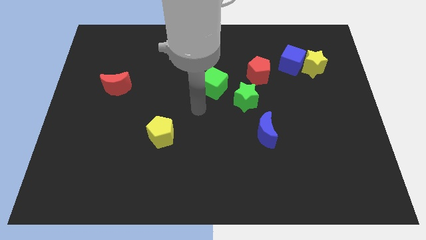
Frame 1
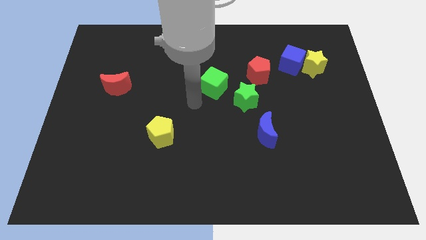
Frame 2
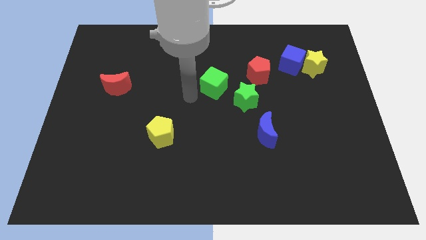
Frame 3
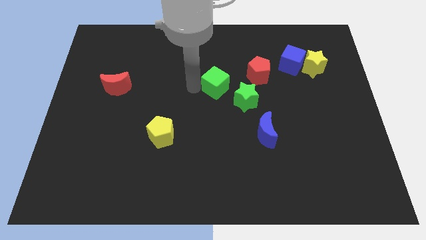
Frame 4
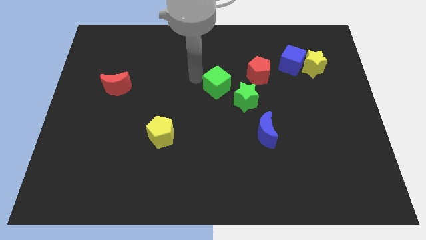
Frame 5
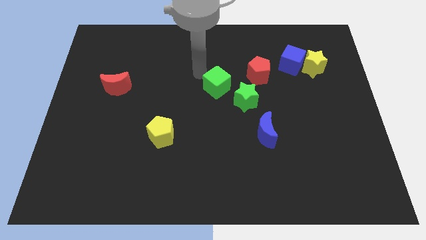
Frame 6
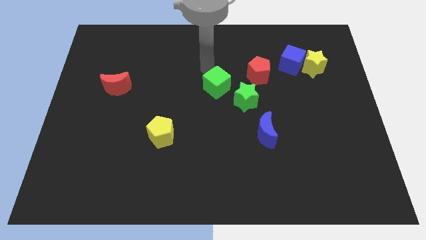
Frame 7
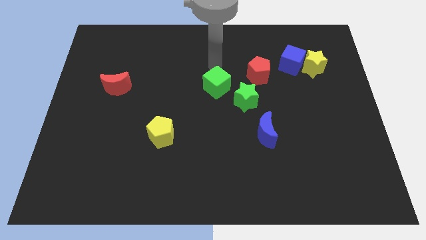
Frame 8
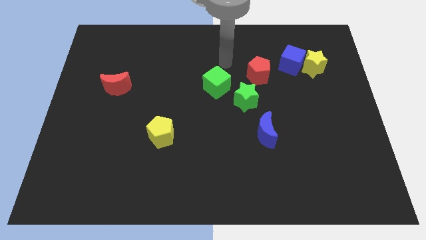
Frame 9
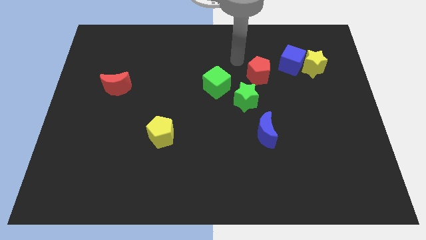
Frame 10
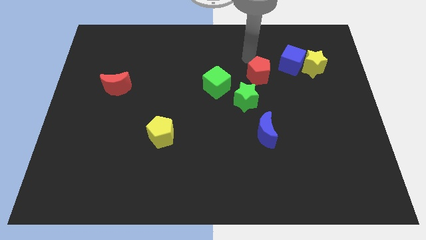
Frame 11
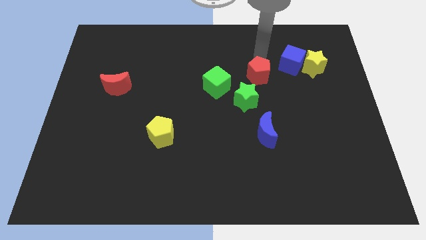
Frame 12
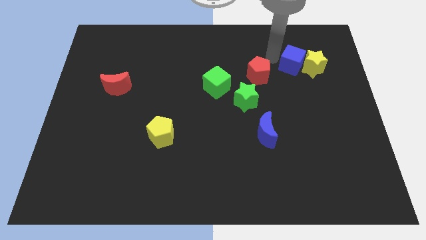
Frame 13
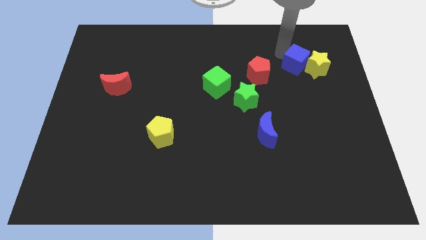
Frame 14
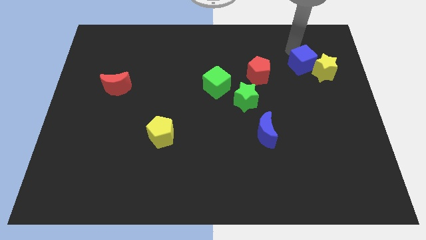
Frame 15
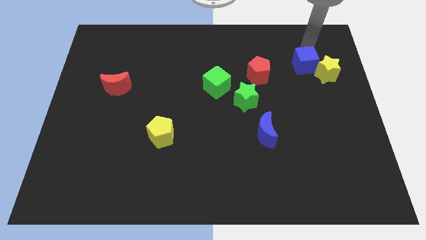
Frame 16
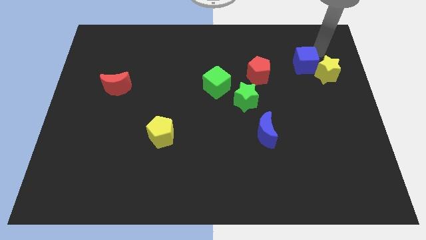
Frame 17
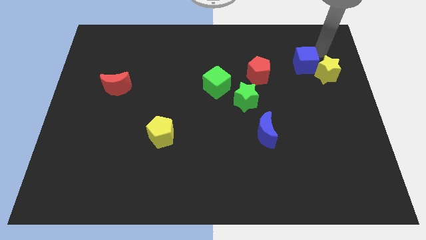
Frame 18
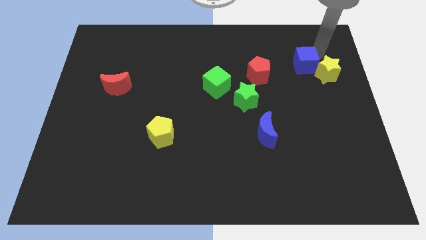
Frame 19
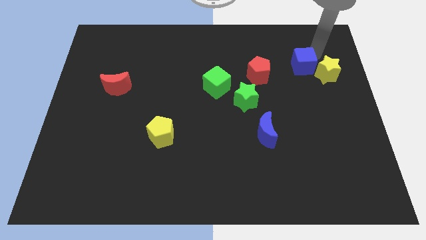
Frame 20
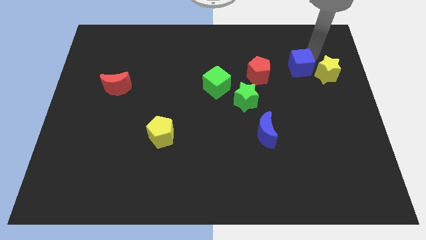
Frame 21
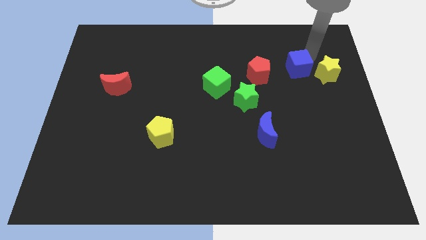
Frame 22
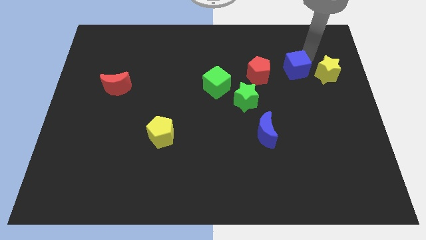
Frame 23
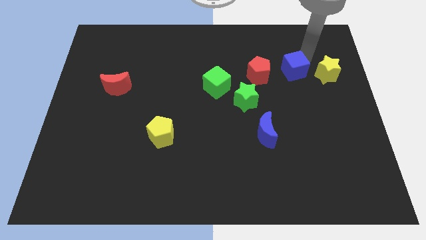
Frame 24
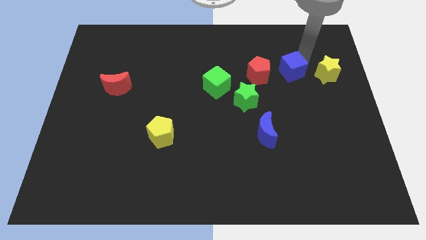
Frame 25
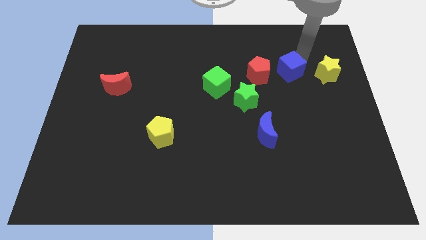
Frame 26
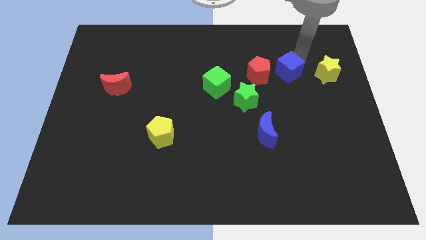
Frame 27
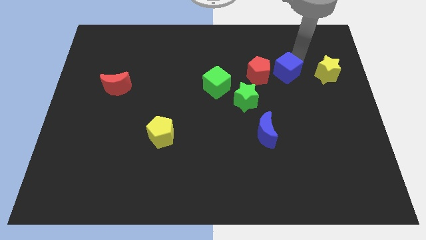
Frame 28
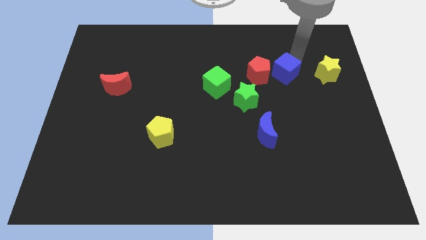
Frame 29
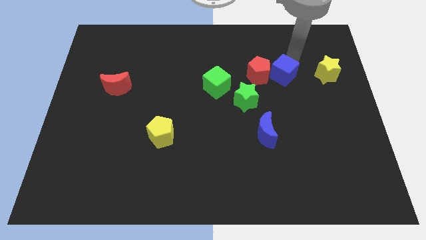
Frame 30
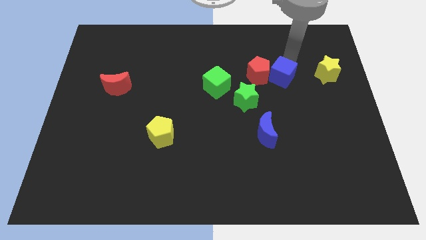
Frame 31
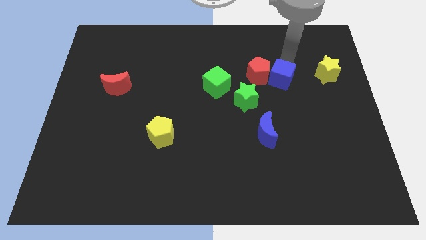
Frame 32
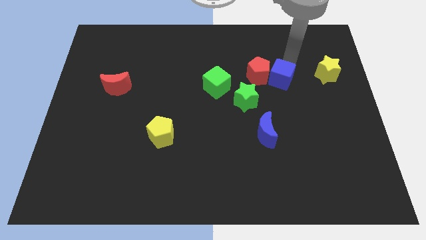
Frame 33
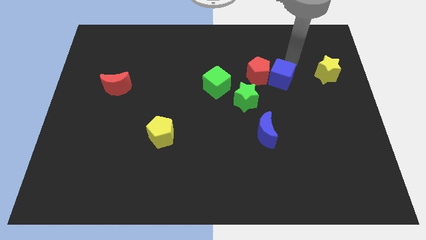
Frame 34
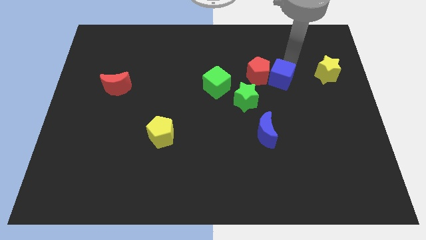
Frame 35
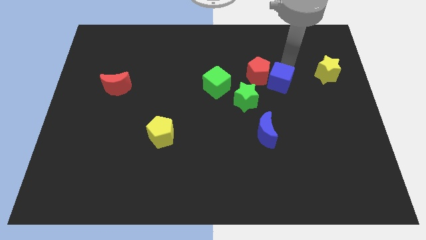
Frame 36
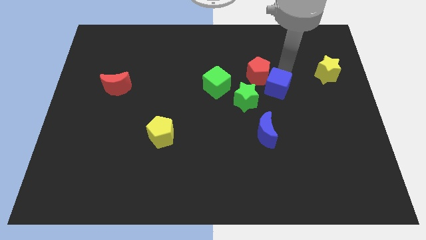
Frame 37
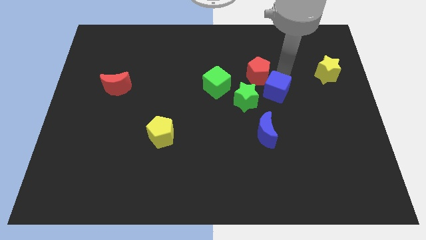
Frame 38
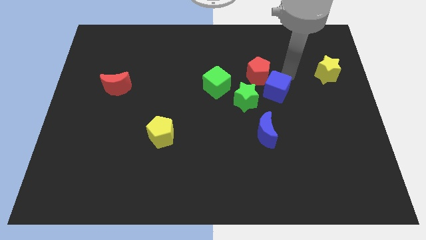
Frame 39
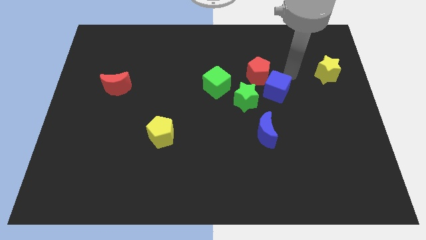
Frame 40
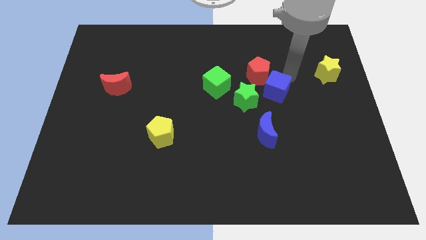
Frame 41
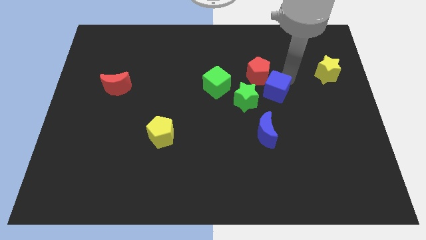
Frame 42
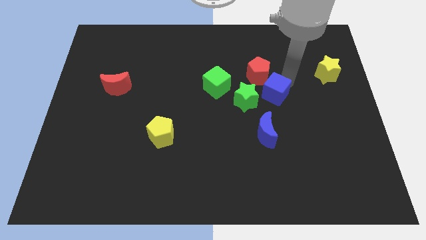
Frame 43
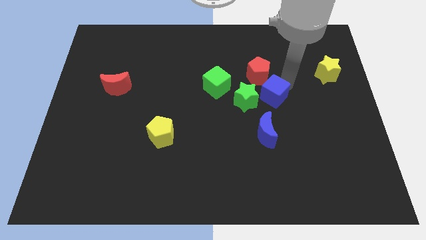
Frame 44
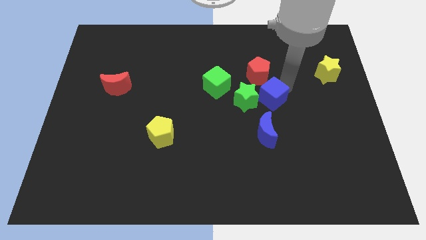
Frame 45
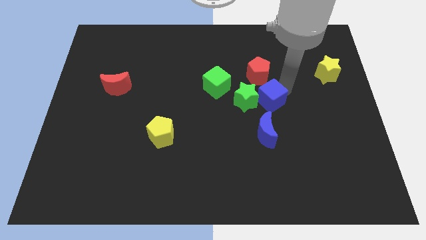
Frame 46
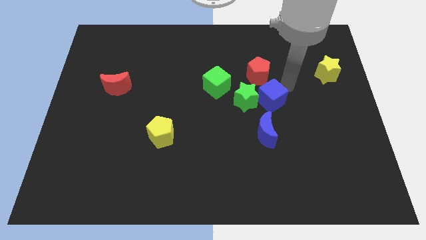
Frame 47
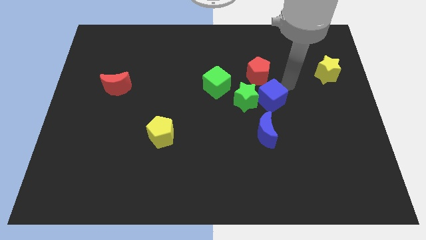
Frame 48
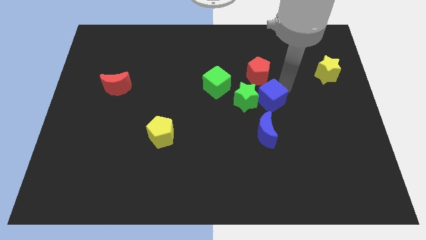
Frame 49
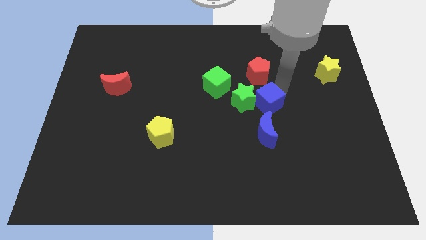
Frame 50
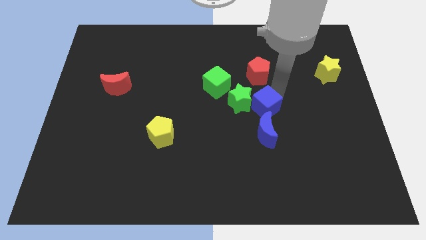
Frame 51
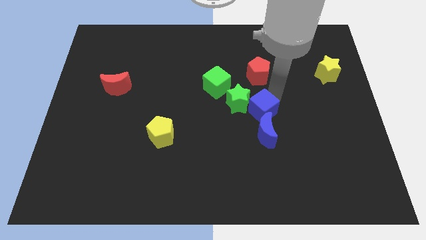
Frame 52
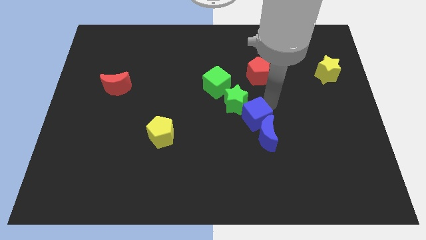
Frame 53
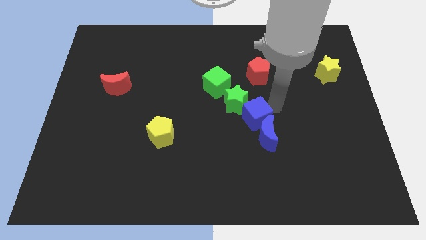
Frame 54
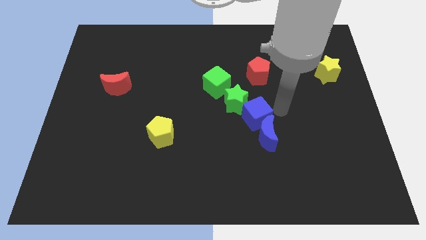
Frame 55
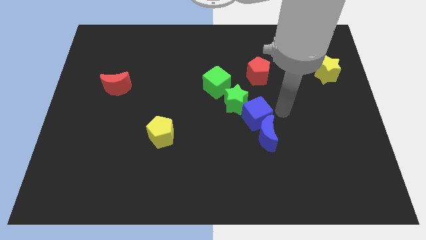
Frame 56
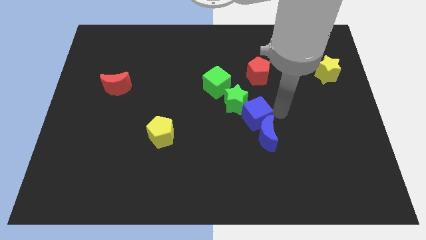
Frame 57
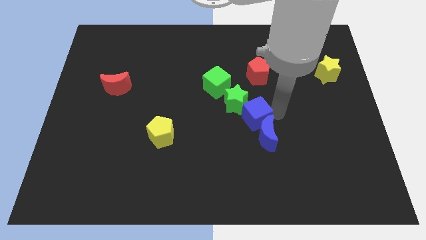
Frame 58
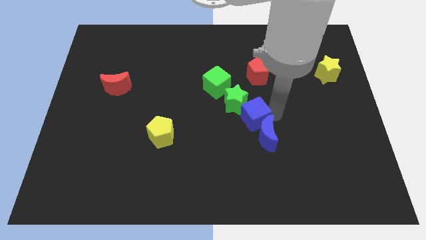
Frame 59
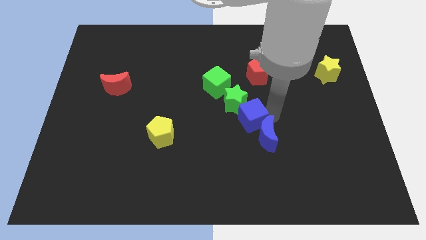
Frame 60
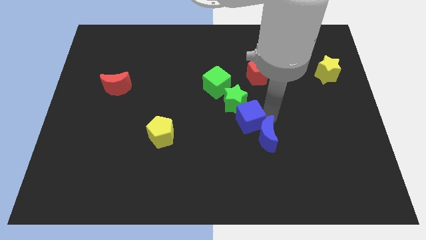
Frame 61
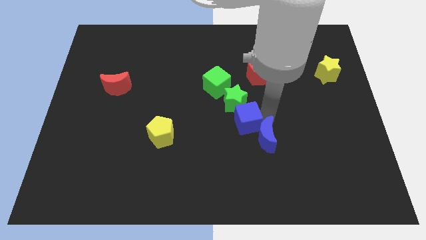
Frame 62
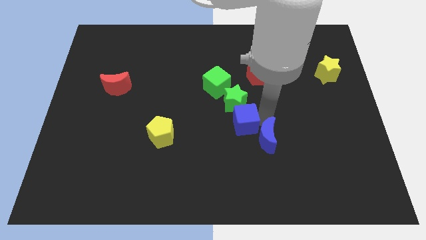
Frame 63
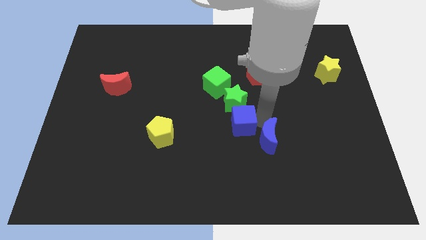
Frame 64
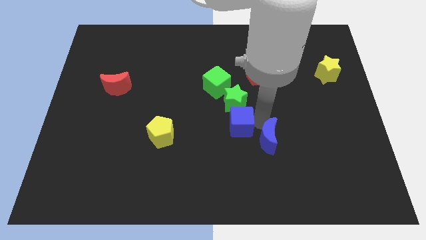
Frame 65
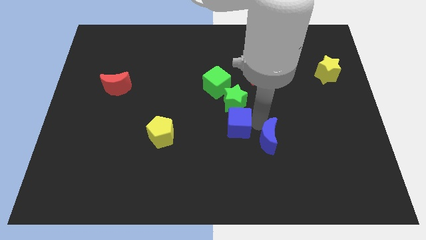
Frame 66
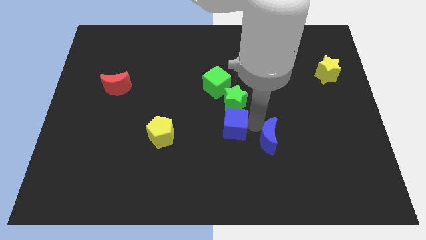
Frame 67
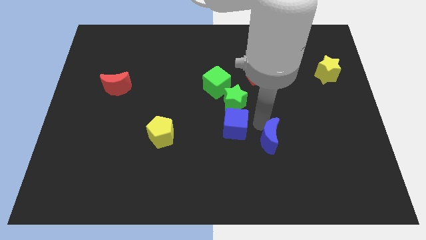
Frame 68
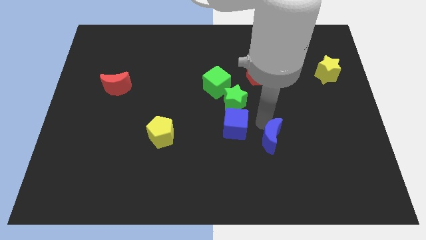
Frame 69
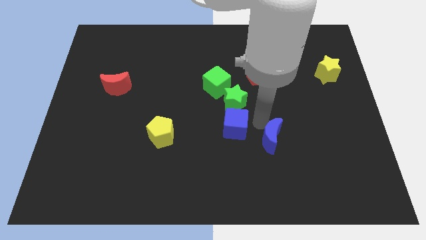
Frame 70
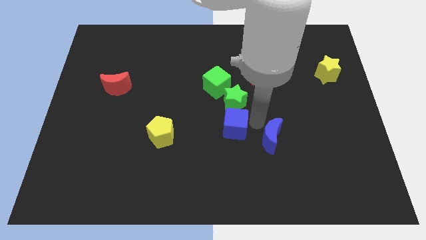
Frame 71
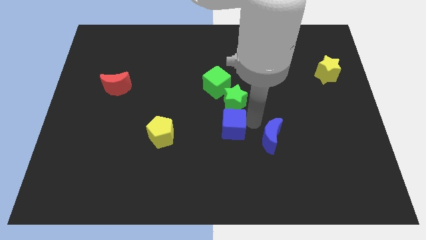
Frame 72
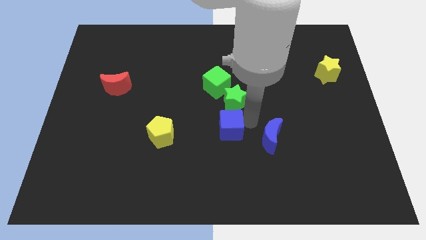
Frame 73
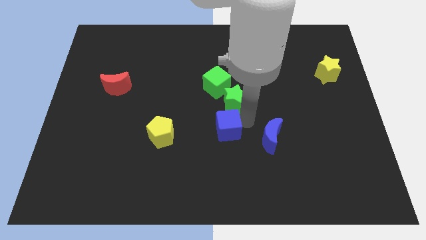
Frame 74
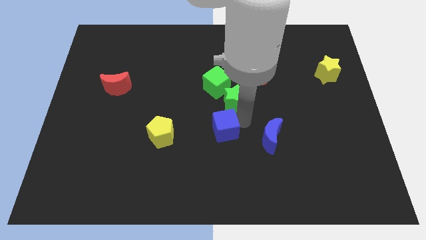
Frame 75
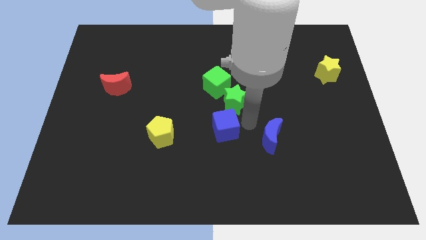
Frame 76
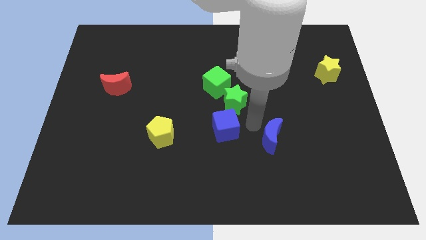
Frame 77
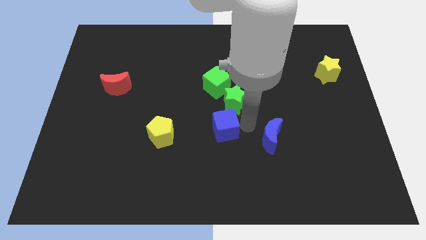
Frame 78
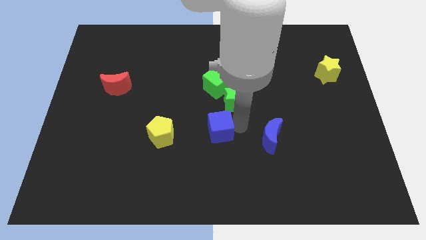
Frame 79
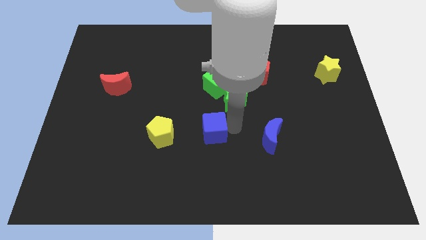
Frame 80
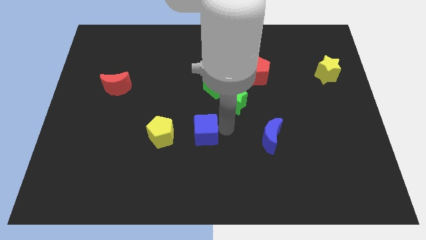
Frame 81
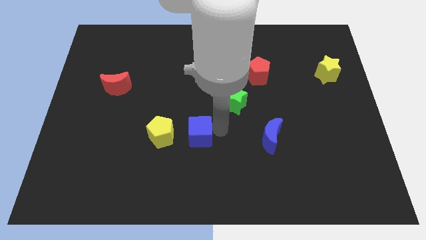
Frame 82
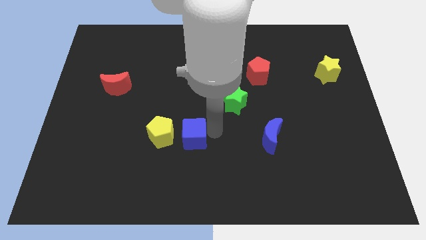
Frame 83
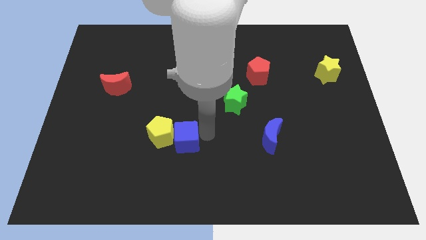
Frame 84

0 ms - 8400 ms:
slide the blue cube next to the yellow pentagon
